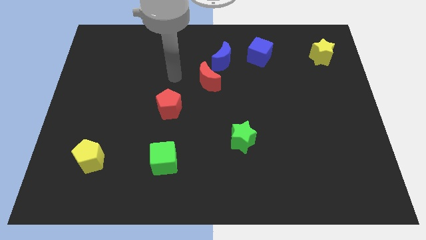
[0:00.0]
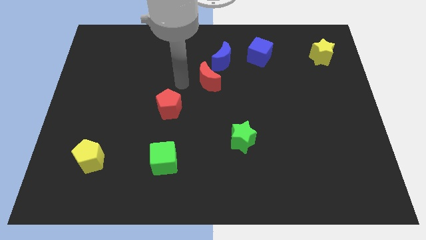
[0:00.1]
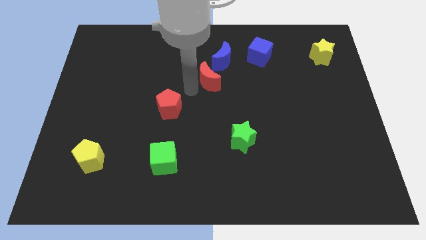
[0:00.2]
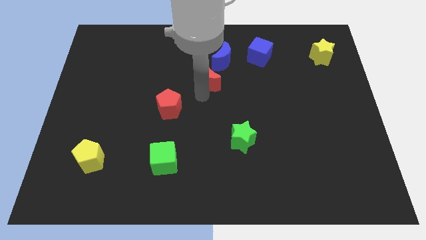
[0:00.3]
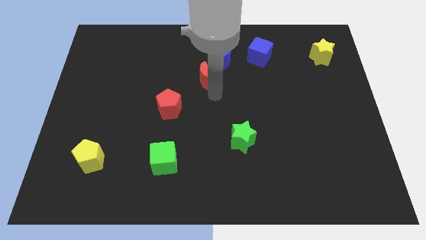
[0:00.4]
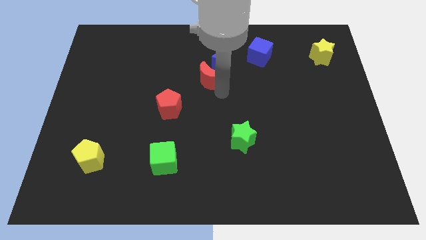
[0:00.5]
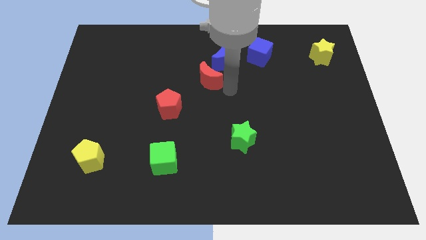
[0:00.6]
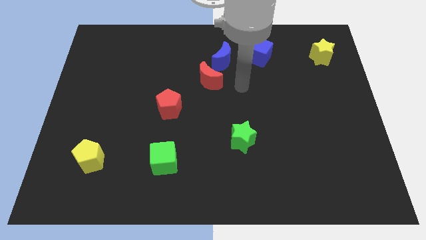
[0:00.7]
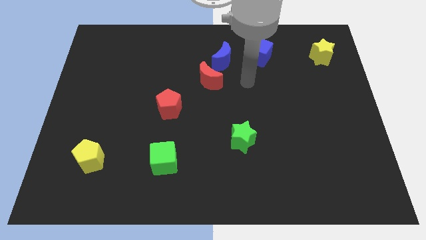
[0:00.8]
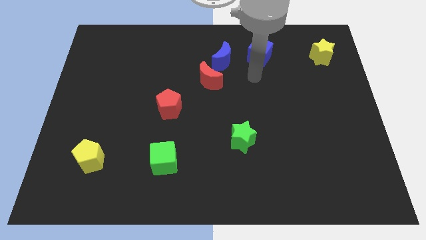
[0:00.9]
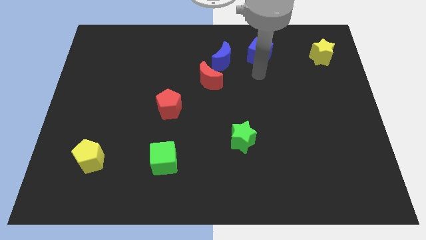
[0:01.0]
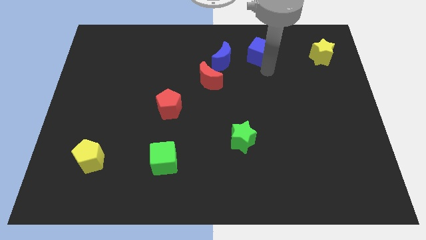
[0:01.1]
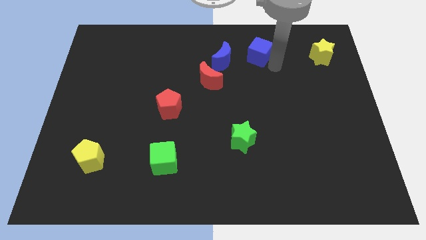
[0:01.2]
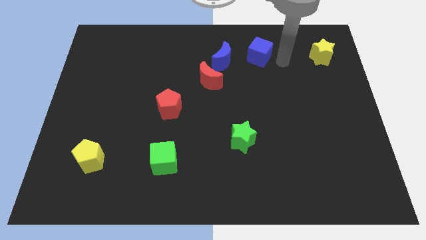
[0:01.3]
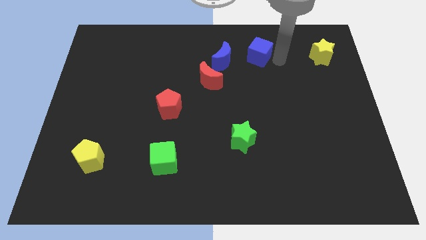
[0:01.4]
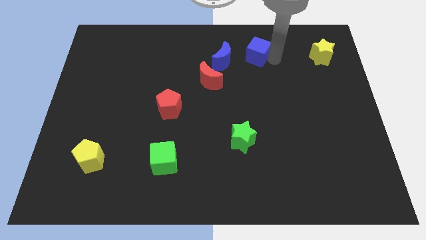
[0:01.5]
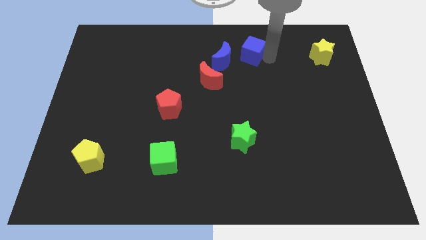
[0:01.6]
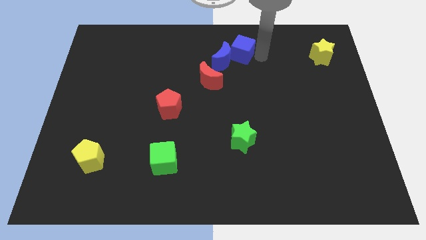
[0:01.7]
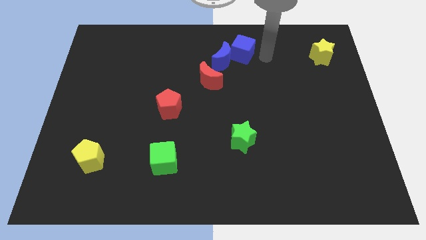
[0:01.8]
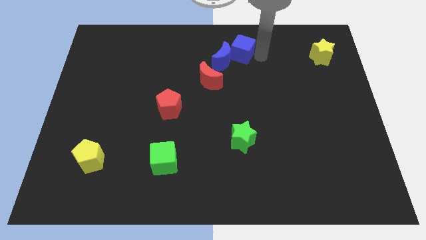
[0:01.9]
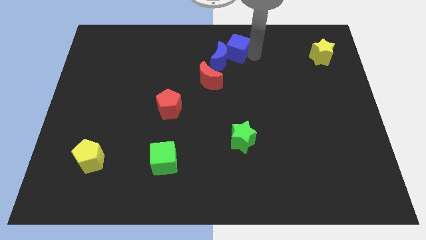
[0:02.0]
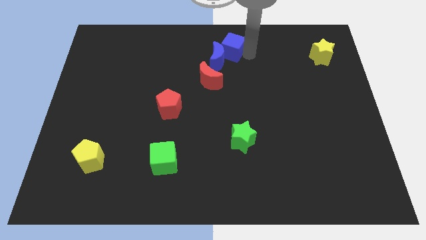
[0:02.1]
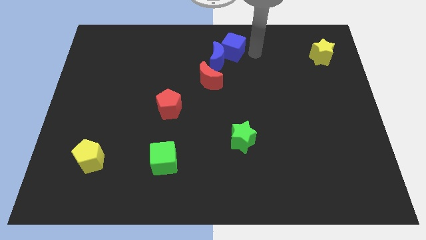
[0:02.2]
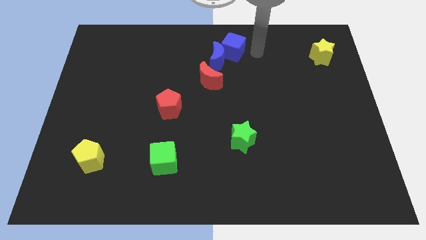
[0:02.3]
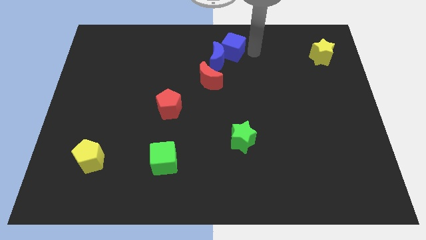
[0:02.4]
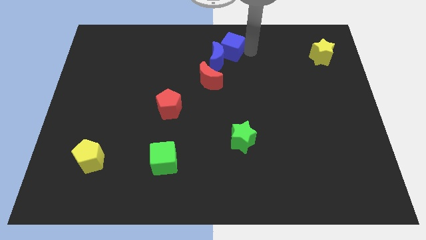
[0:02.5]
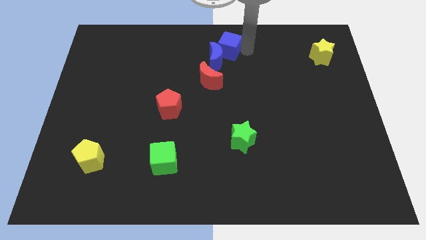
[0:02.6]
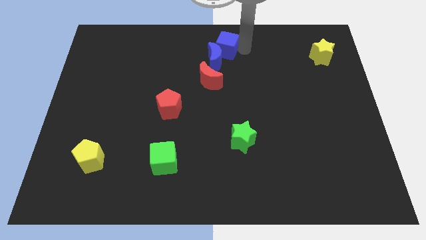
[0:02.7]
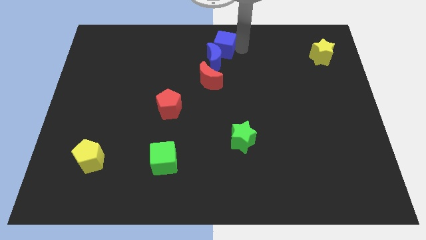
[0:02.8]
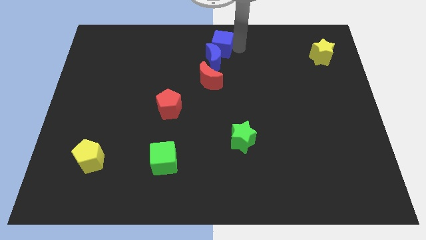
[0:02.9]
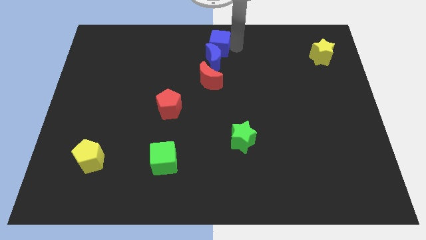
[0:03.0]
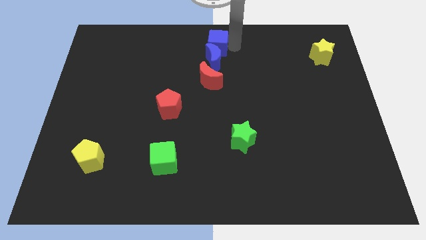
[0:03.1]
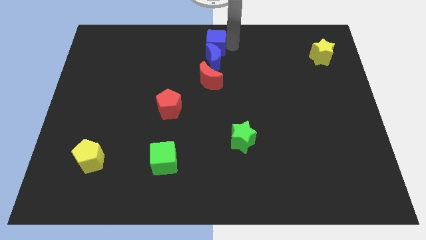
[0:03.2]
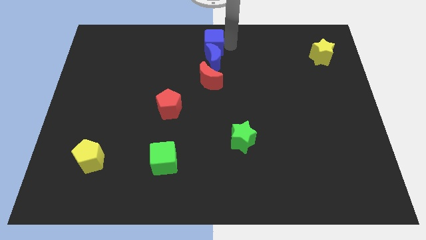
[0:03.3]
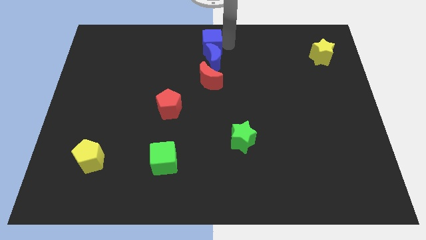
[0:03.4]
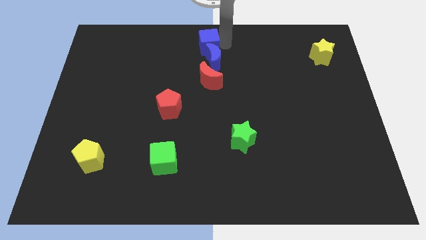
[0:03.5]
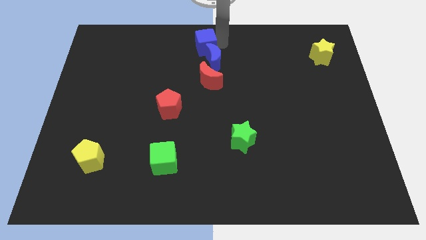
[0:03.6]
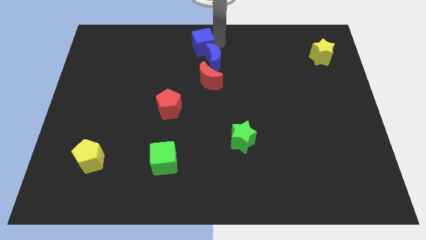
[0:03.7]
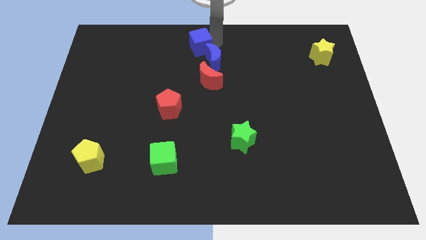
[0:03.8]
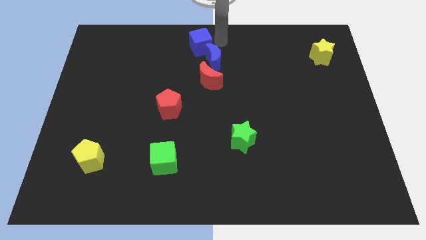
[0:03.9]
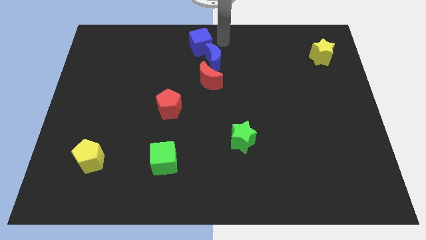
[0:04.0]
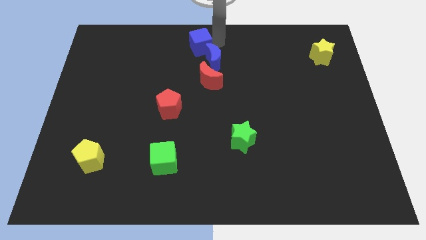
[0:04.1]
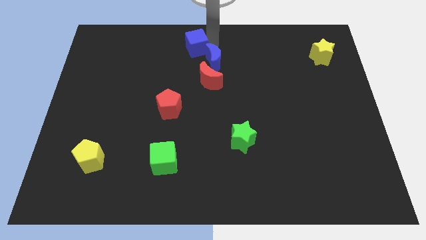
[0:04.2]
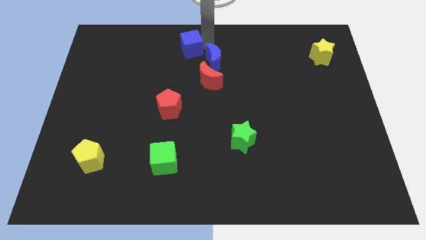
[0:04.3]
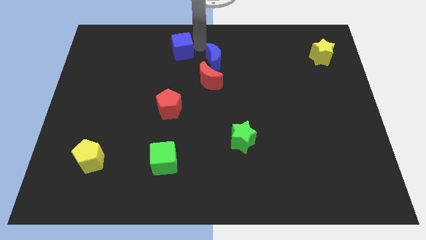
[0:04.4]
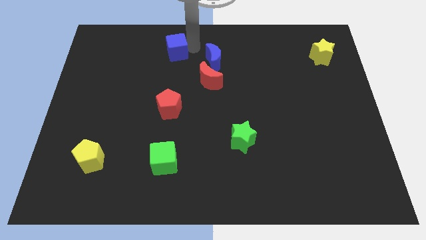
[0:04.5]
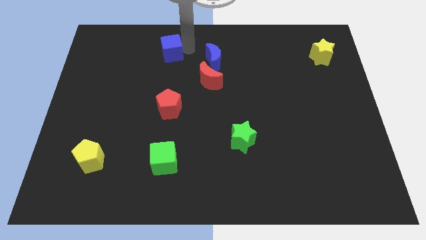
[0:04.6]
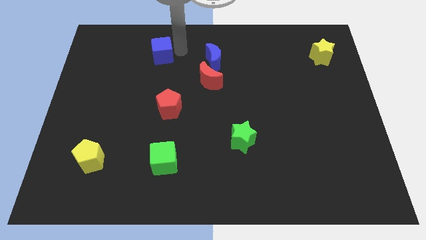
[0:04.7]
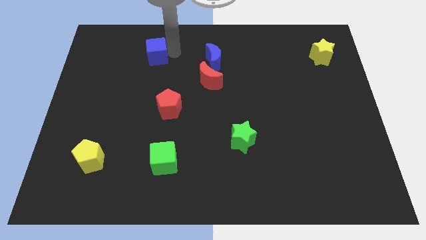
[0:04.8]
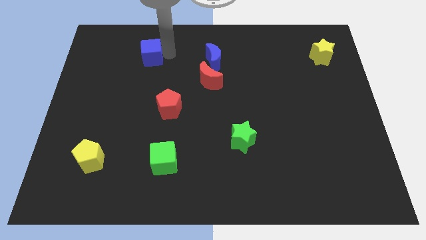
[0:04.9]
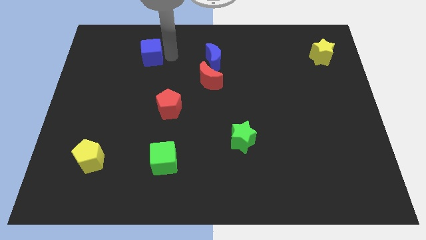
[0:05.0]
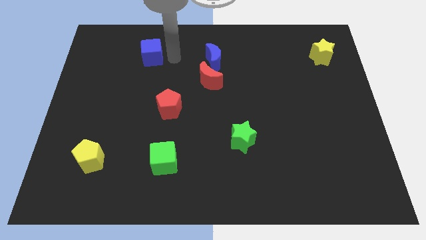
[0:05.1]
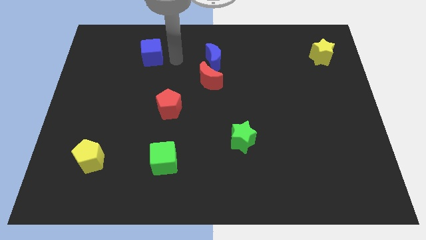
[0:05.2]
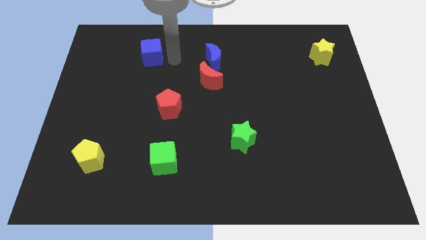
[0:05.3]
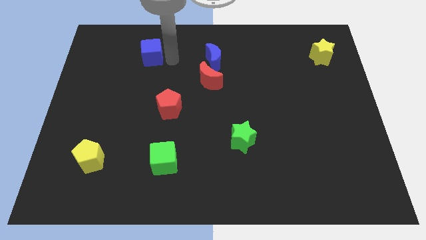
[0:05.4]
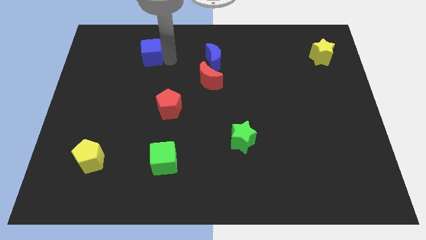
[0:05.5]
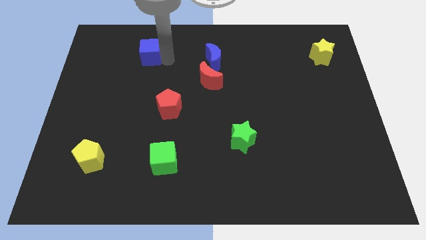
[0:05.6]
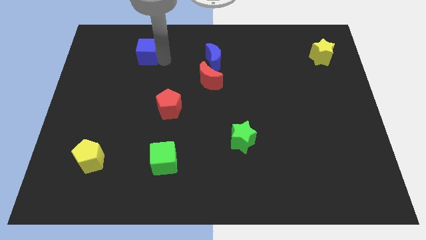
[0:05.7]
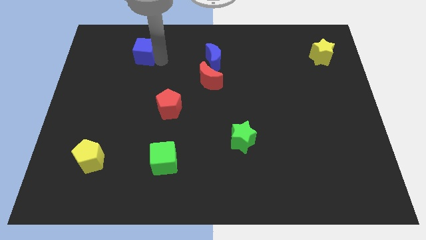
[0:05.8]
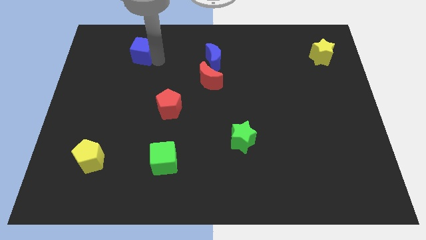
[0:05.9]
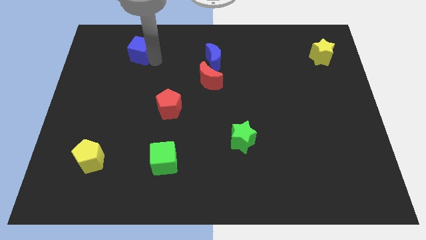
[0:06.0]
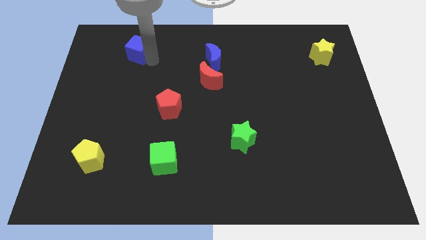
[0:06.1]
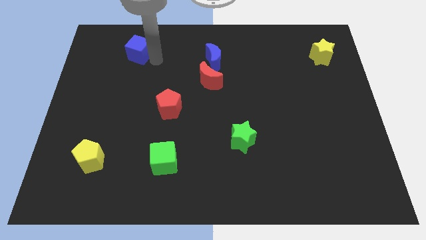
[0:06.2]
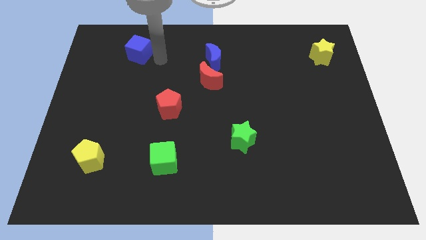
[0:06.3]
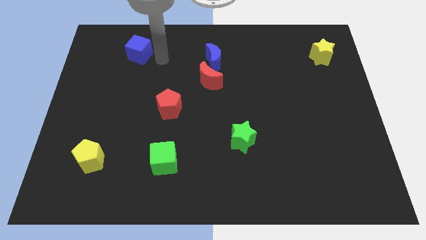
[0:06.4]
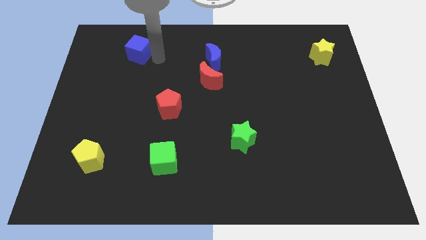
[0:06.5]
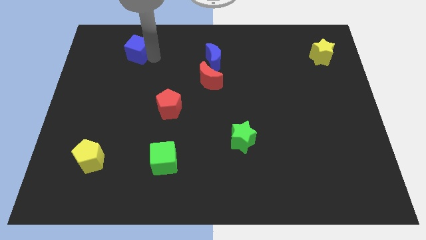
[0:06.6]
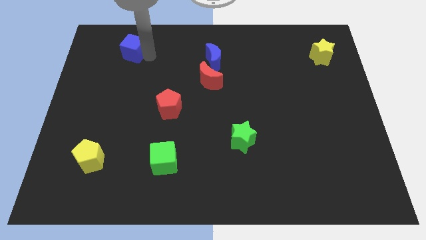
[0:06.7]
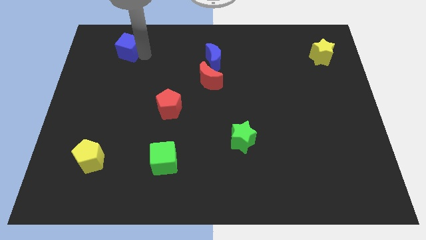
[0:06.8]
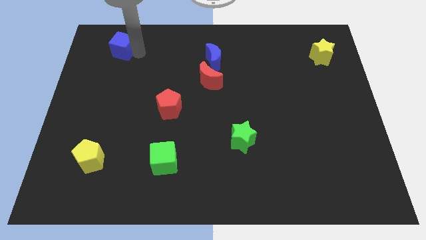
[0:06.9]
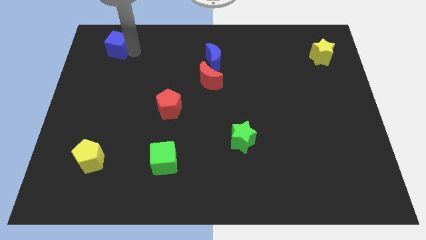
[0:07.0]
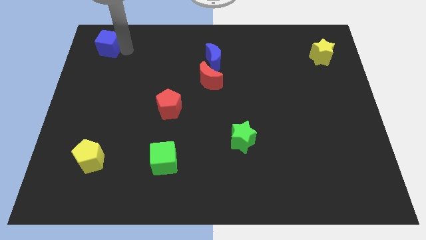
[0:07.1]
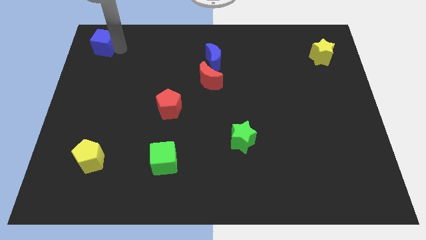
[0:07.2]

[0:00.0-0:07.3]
push the blue cube to the top left

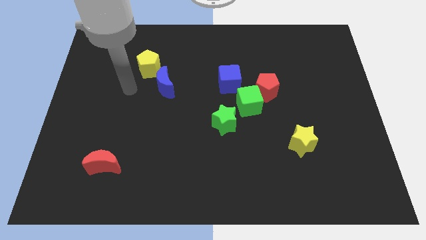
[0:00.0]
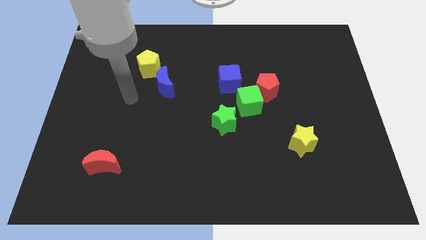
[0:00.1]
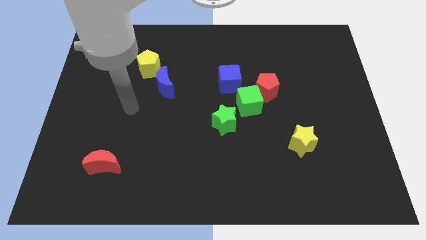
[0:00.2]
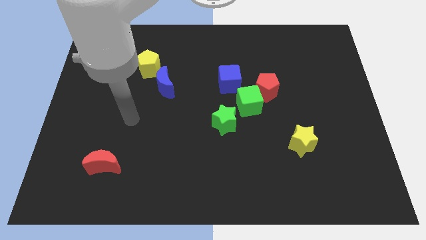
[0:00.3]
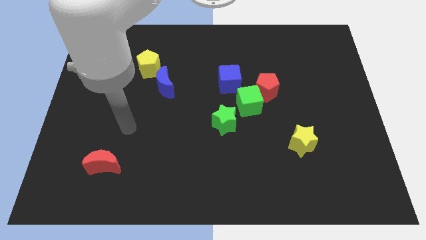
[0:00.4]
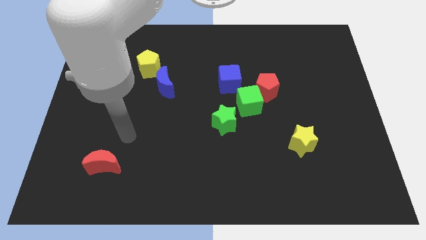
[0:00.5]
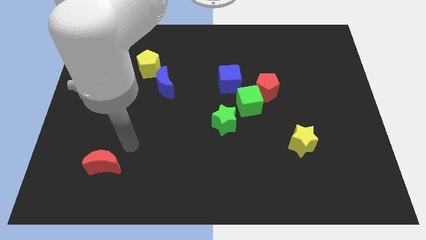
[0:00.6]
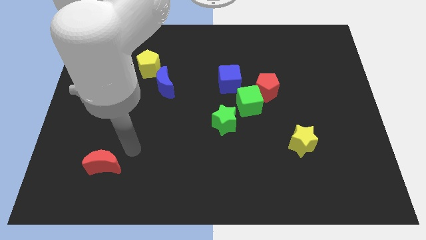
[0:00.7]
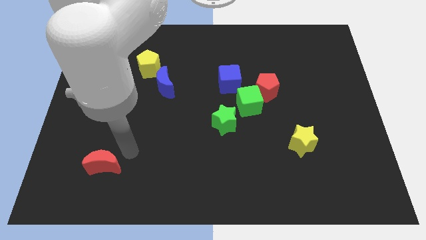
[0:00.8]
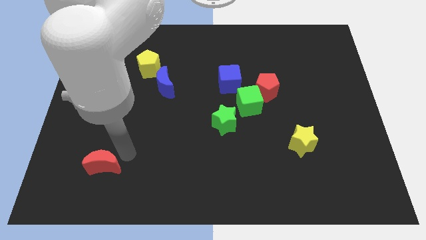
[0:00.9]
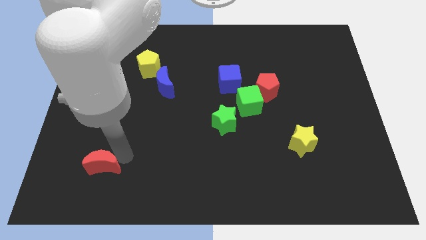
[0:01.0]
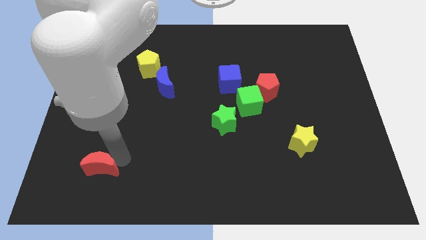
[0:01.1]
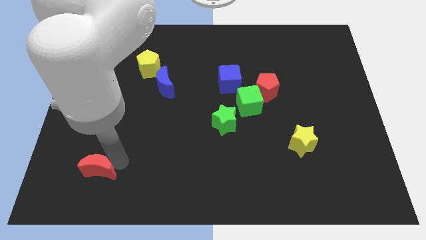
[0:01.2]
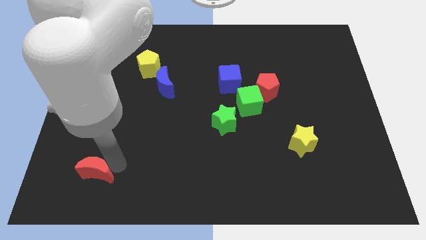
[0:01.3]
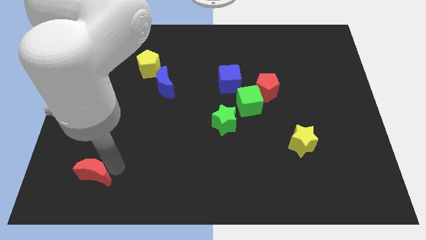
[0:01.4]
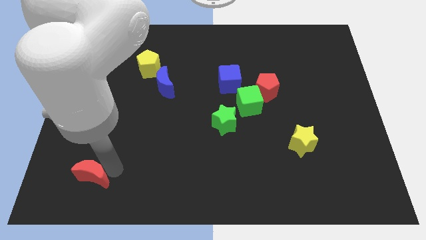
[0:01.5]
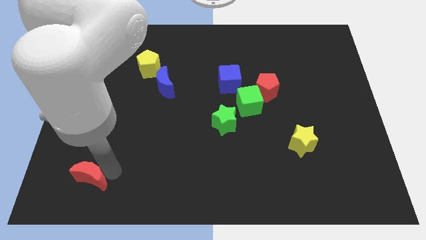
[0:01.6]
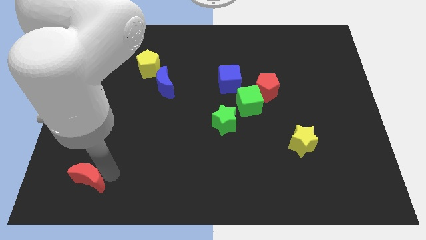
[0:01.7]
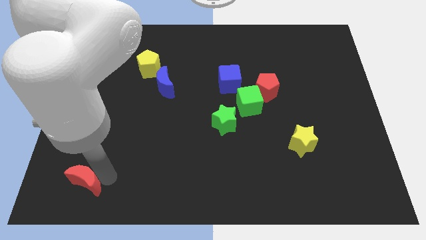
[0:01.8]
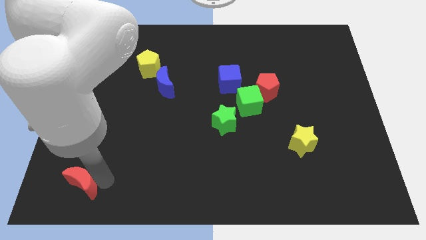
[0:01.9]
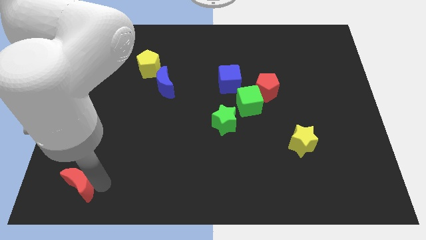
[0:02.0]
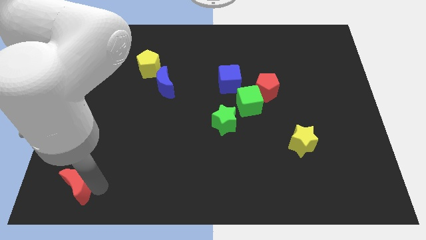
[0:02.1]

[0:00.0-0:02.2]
slide the red moon to the bottom left of the board
